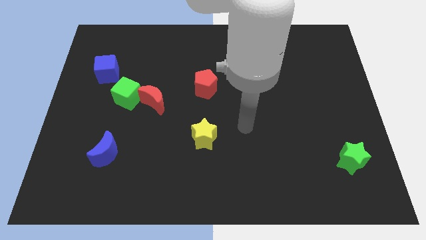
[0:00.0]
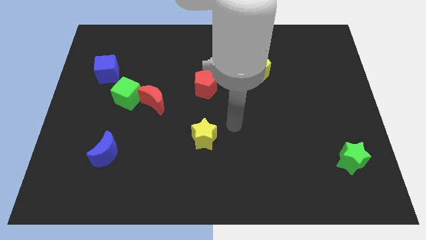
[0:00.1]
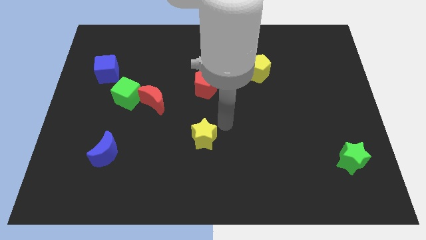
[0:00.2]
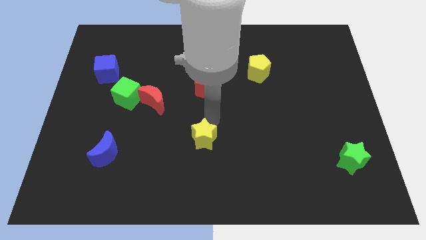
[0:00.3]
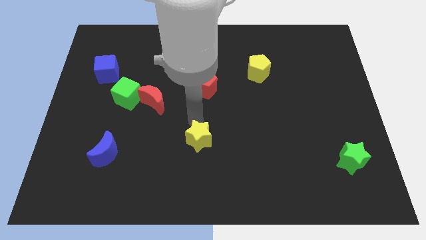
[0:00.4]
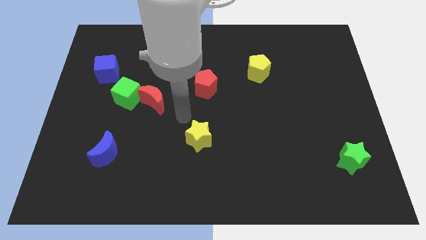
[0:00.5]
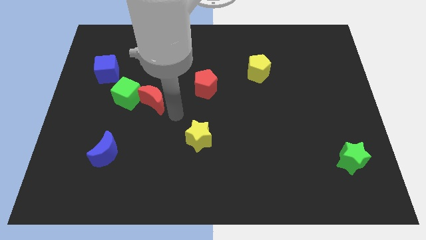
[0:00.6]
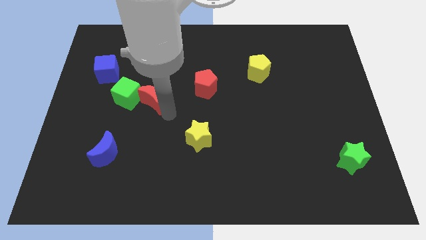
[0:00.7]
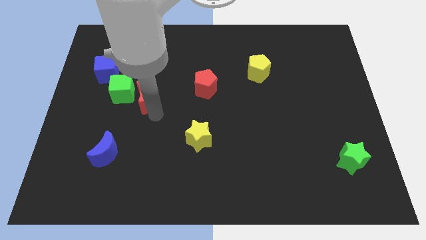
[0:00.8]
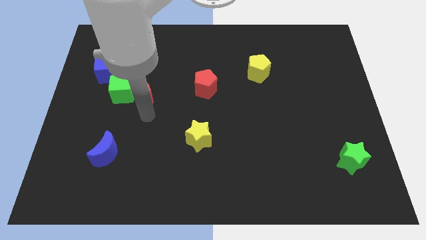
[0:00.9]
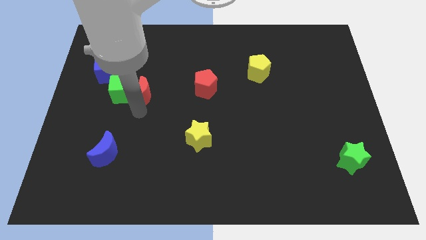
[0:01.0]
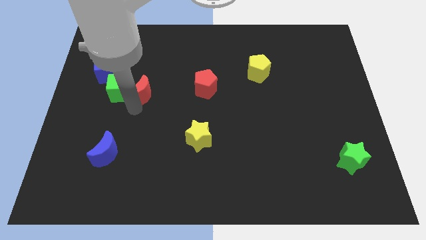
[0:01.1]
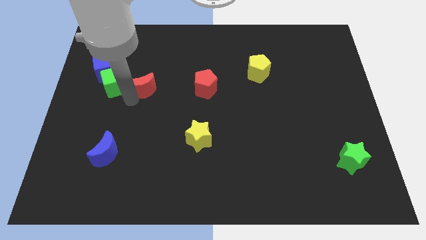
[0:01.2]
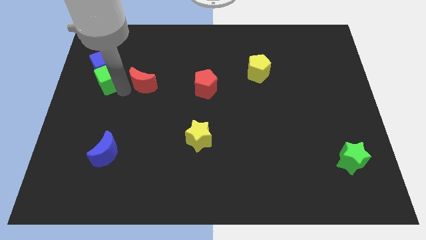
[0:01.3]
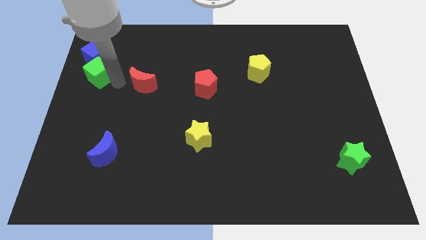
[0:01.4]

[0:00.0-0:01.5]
move the red moon away from the green cube

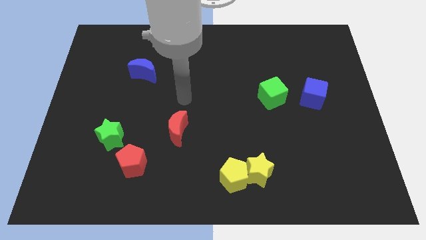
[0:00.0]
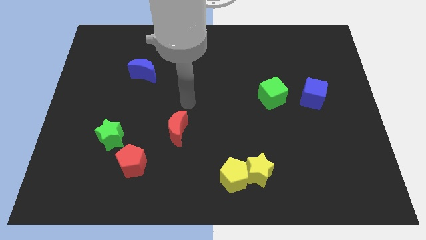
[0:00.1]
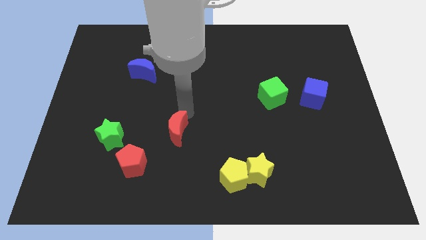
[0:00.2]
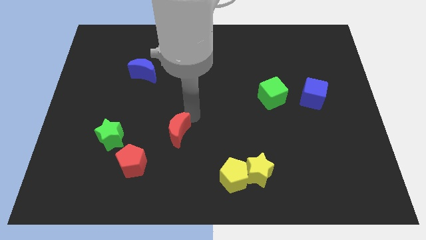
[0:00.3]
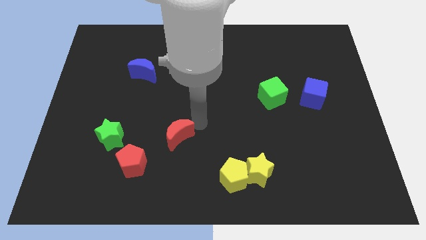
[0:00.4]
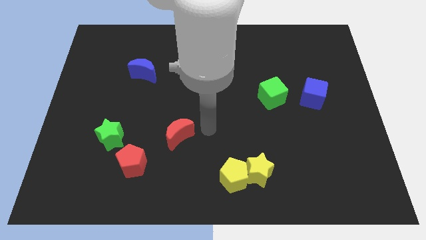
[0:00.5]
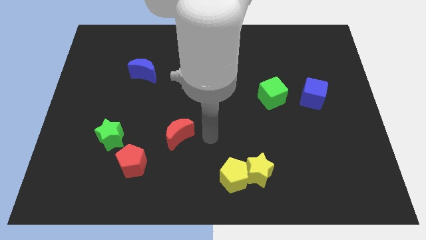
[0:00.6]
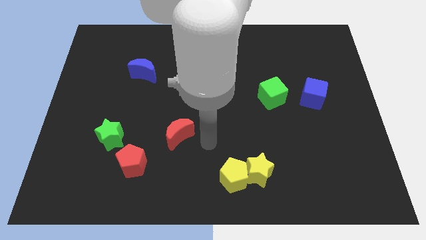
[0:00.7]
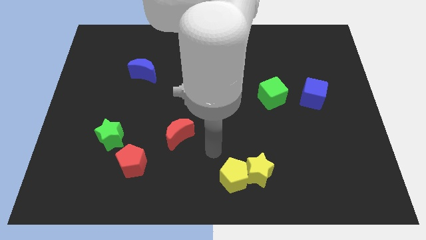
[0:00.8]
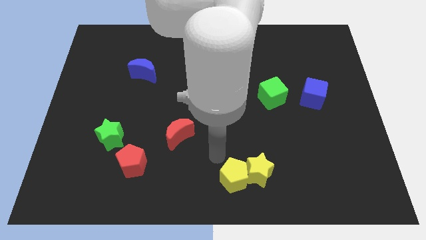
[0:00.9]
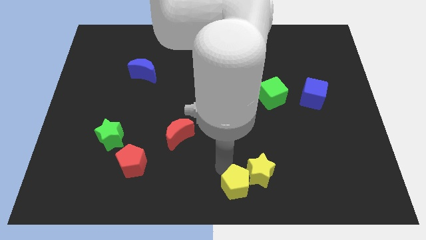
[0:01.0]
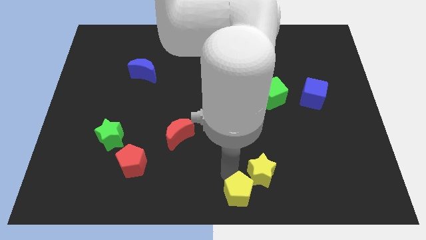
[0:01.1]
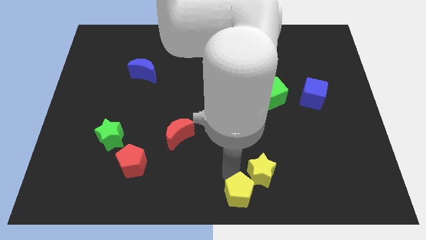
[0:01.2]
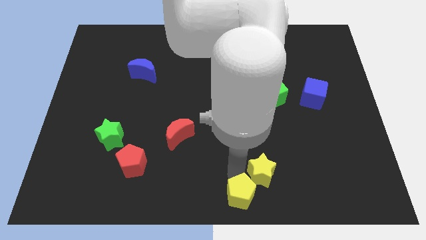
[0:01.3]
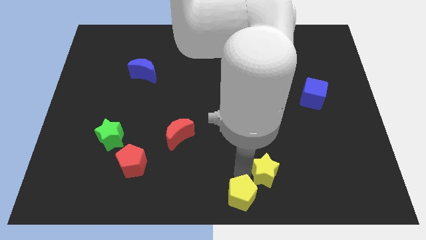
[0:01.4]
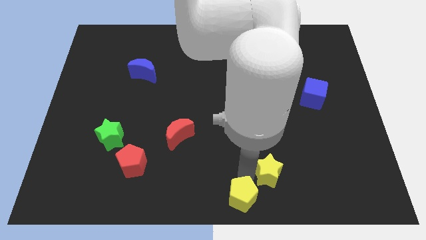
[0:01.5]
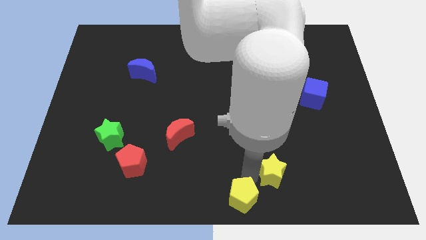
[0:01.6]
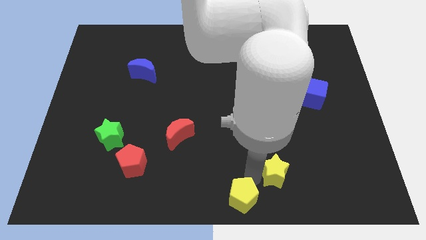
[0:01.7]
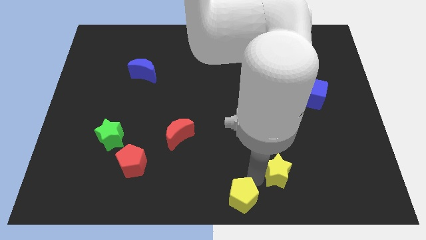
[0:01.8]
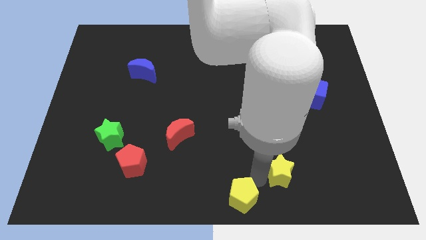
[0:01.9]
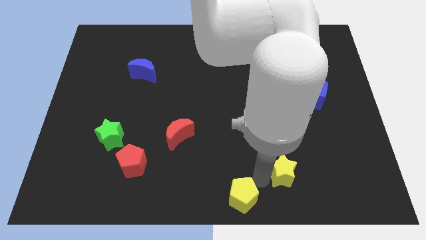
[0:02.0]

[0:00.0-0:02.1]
separate the yellow star from the yellow pentagon

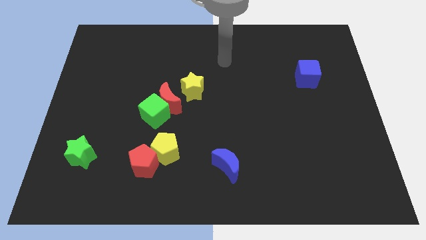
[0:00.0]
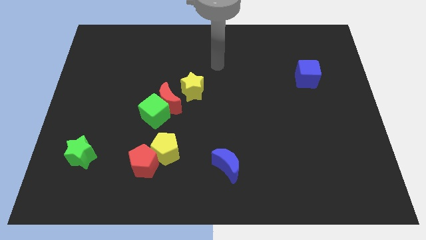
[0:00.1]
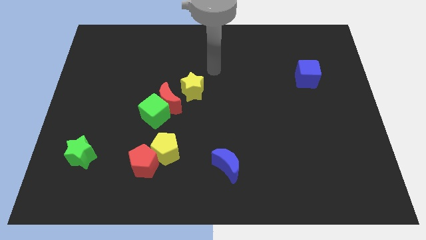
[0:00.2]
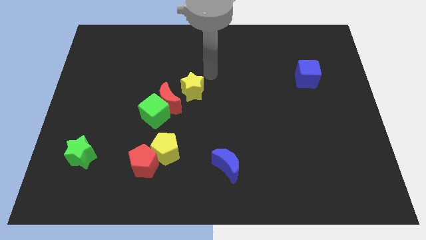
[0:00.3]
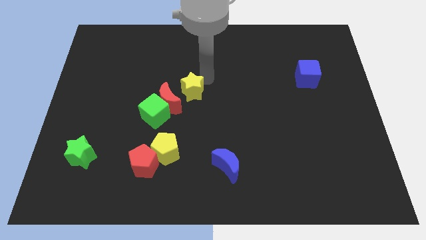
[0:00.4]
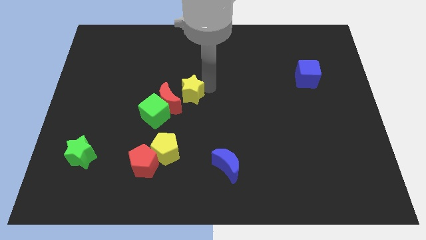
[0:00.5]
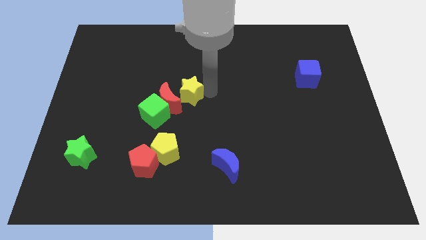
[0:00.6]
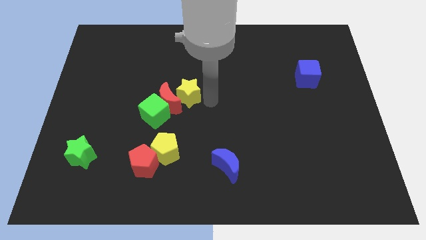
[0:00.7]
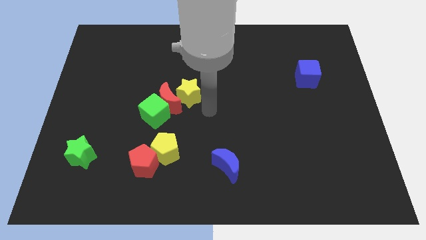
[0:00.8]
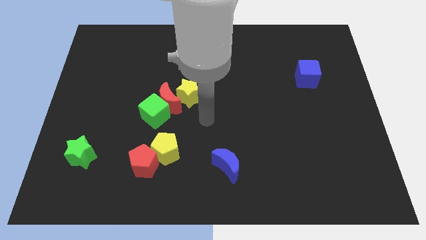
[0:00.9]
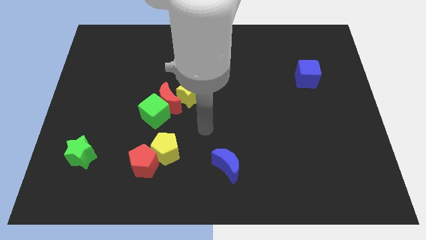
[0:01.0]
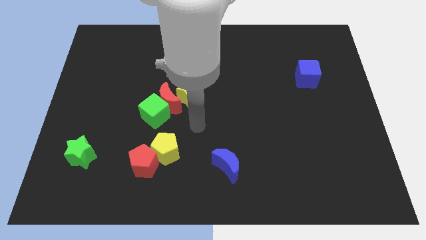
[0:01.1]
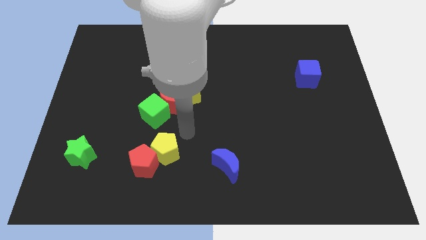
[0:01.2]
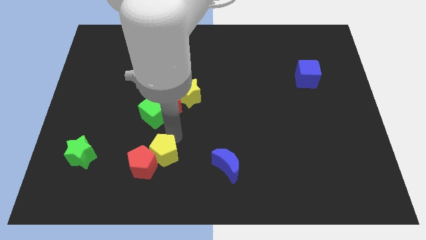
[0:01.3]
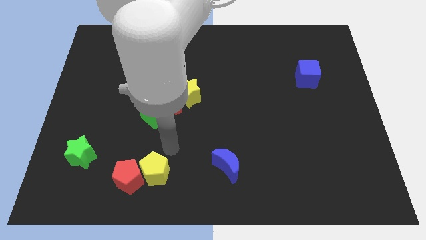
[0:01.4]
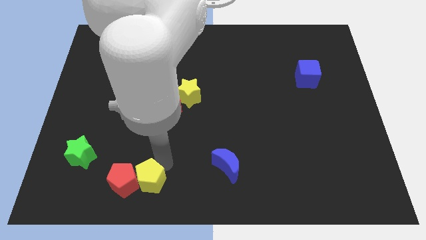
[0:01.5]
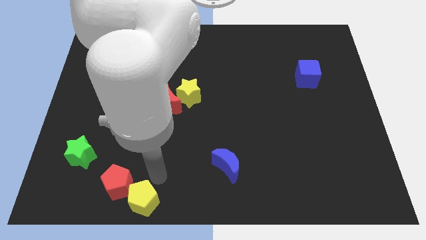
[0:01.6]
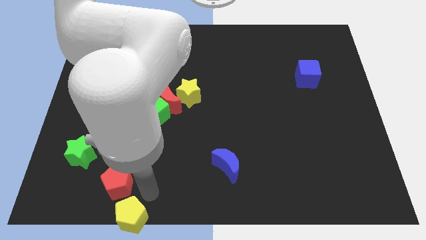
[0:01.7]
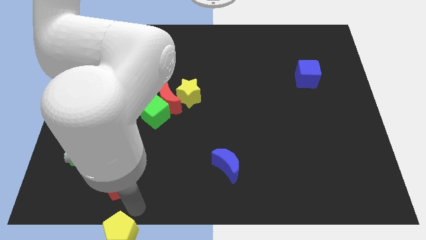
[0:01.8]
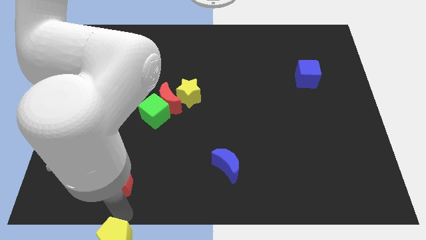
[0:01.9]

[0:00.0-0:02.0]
move the red pentagon away from the yellow pentagon

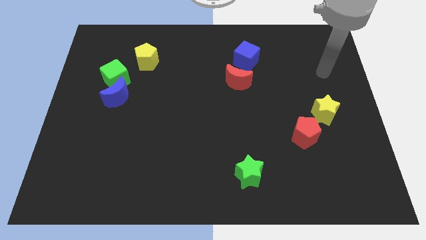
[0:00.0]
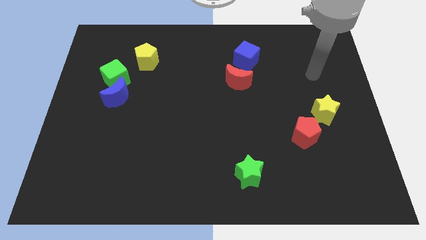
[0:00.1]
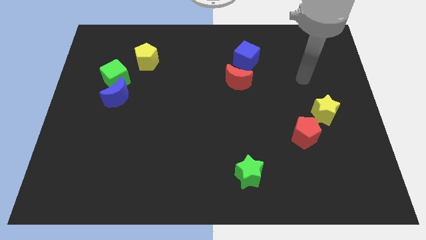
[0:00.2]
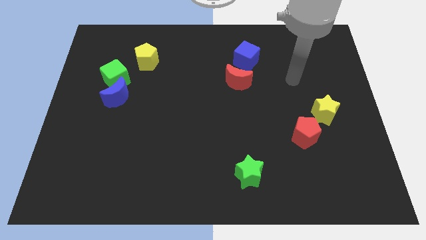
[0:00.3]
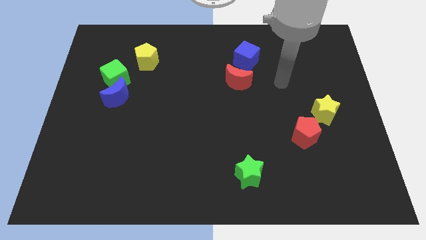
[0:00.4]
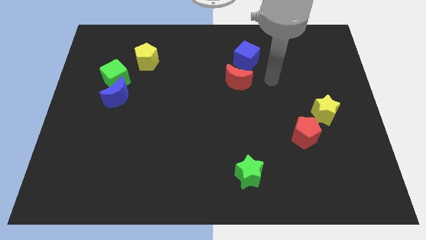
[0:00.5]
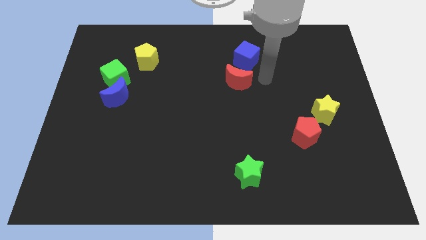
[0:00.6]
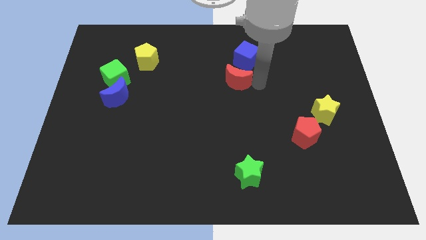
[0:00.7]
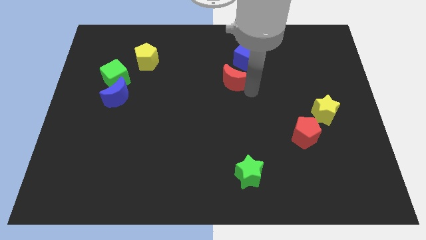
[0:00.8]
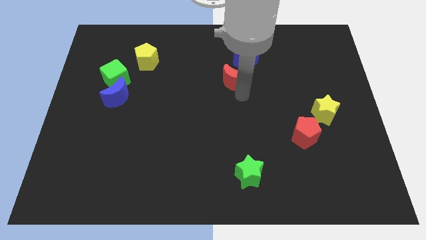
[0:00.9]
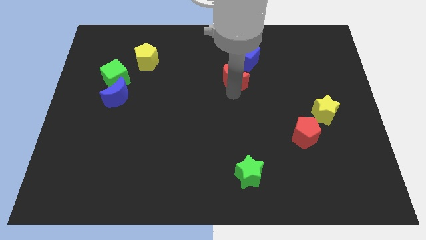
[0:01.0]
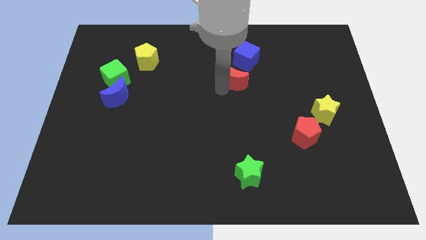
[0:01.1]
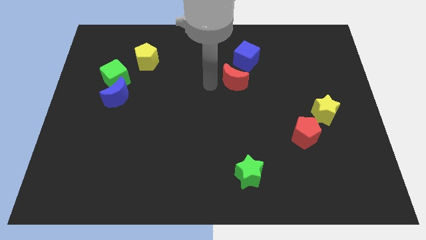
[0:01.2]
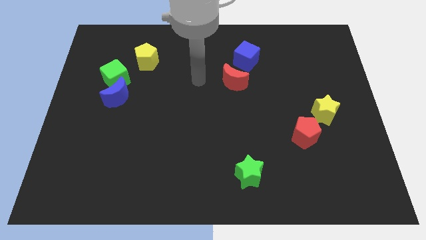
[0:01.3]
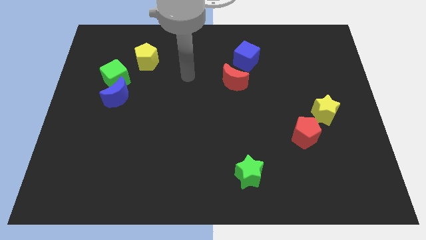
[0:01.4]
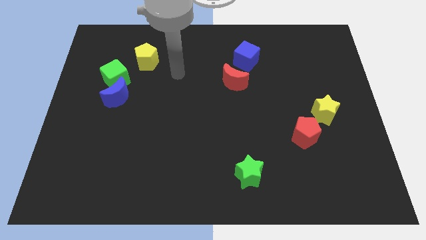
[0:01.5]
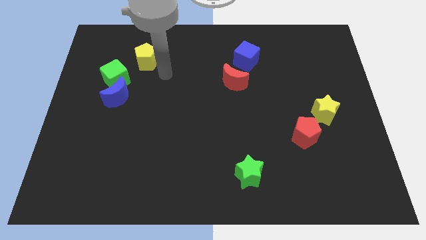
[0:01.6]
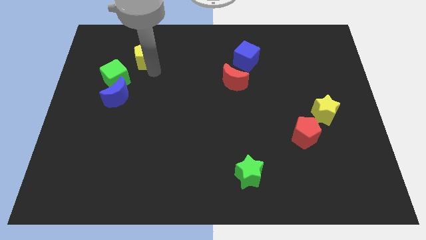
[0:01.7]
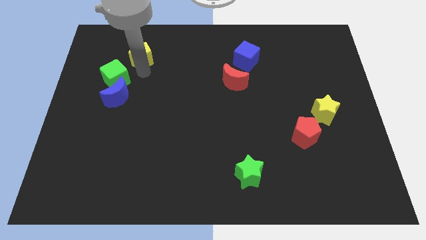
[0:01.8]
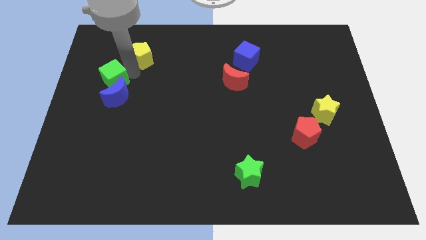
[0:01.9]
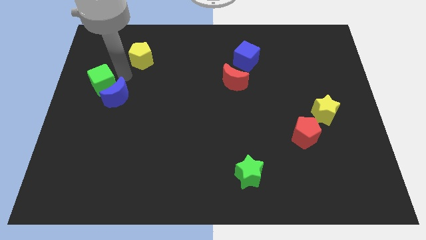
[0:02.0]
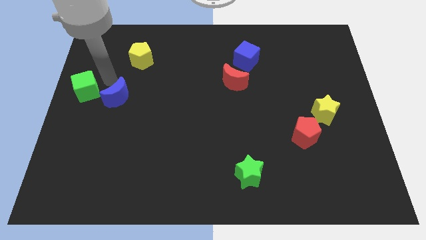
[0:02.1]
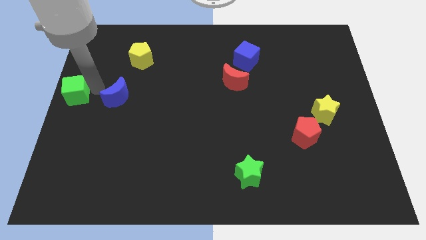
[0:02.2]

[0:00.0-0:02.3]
pull the blue moon apart from the green cube

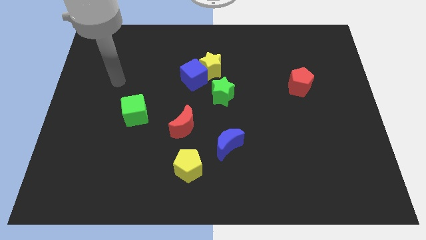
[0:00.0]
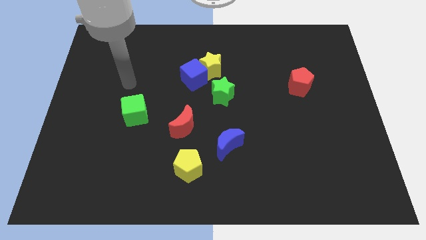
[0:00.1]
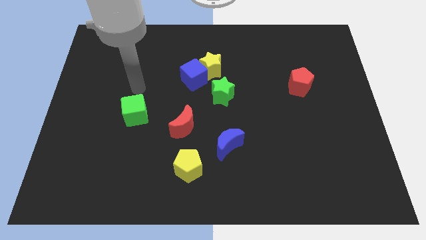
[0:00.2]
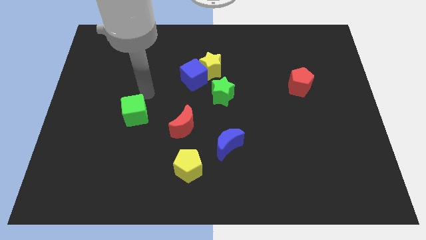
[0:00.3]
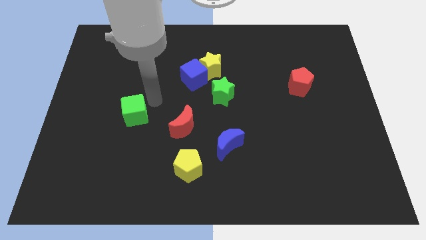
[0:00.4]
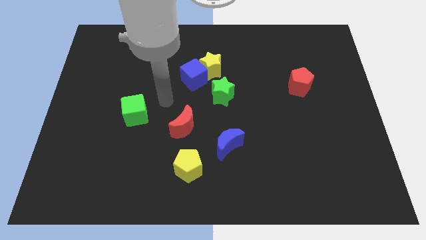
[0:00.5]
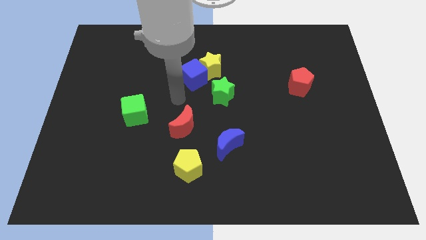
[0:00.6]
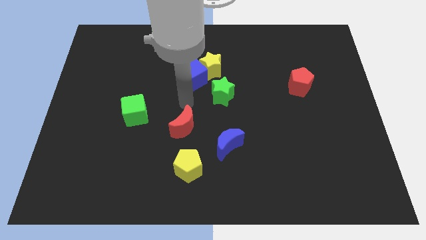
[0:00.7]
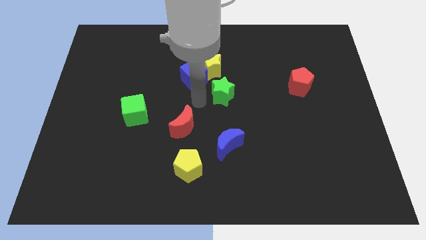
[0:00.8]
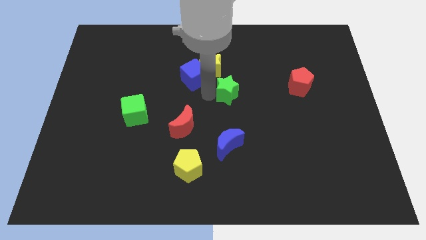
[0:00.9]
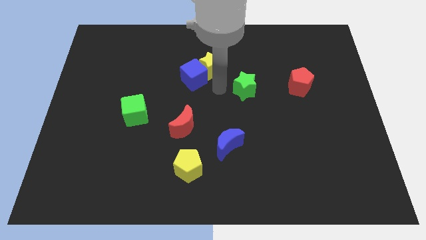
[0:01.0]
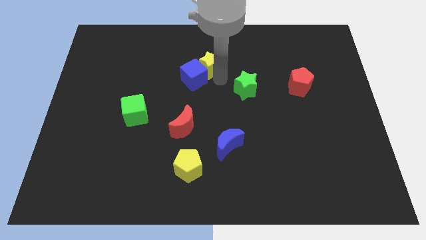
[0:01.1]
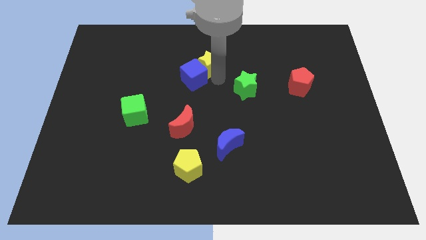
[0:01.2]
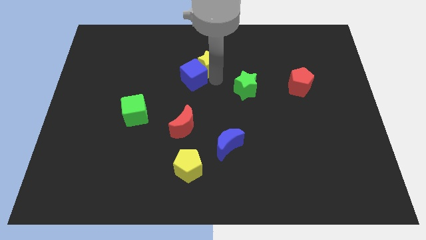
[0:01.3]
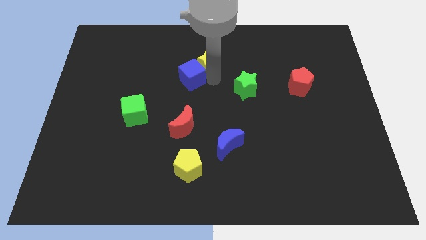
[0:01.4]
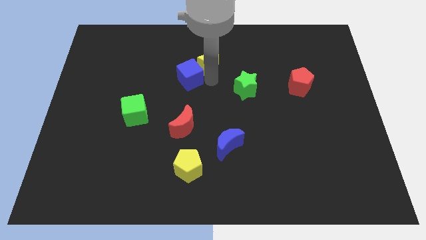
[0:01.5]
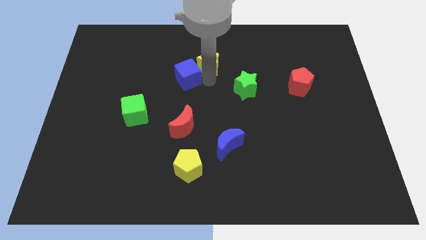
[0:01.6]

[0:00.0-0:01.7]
pull the blue cube apart from the yellow star and green star
